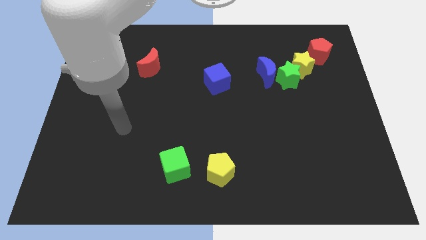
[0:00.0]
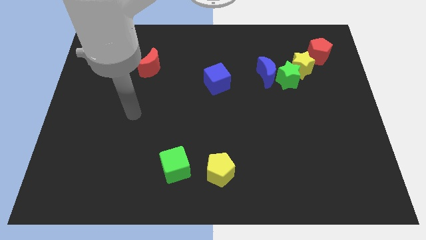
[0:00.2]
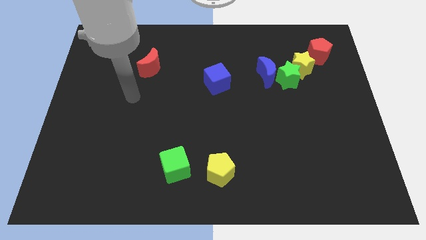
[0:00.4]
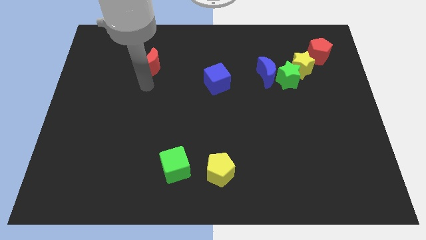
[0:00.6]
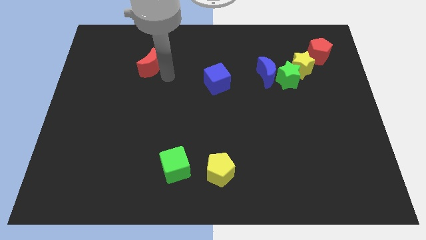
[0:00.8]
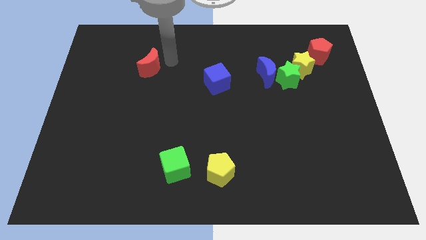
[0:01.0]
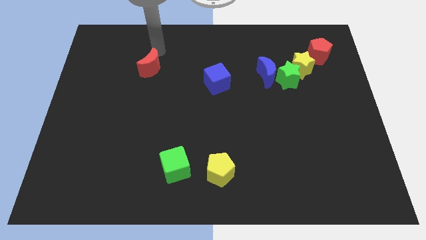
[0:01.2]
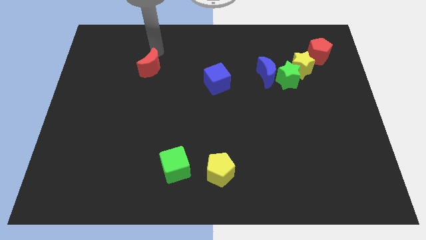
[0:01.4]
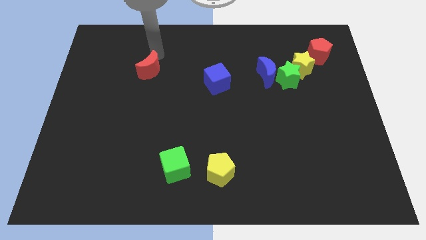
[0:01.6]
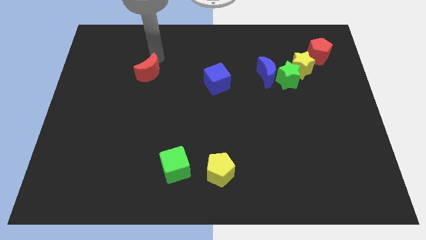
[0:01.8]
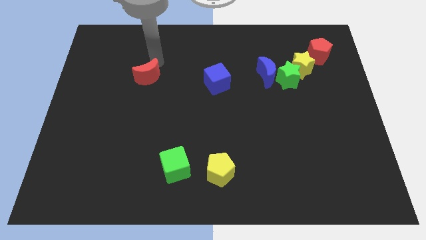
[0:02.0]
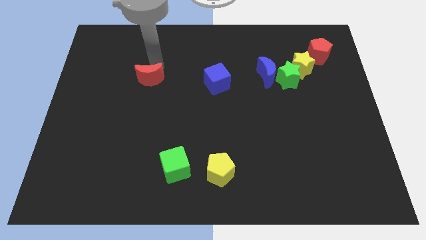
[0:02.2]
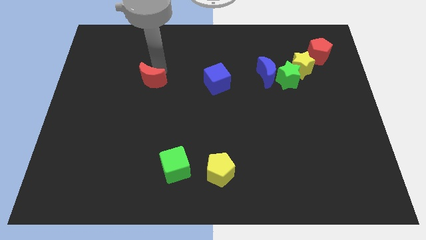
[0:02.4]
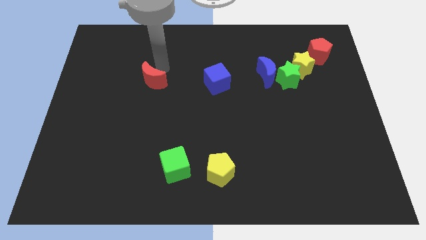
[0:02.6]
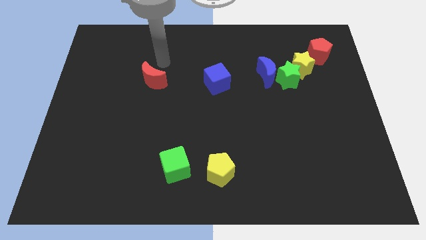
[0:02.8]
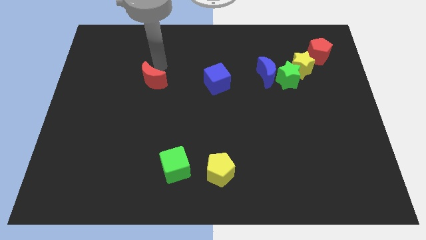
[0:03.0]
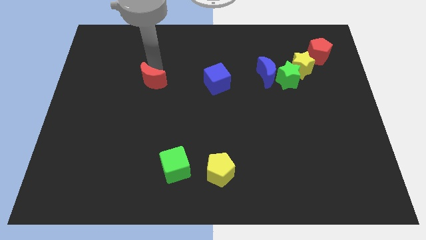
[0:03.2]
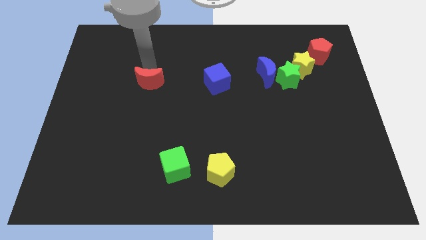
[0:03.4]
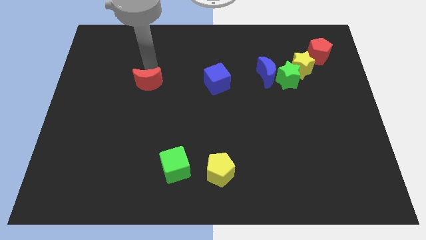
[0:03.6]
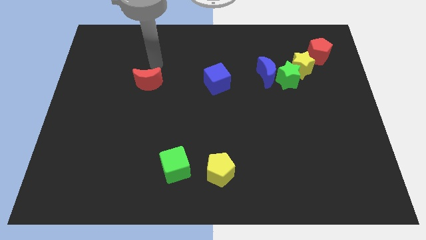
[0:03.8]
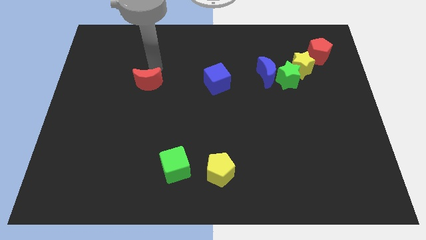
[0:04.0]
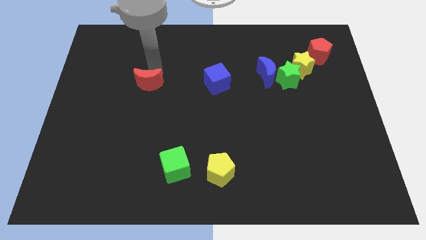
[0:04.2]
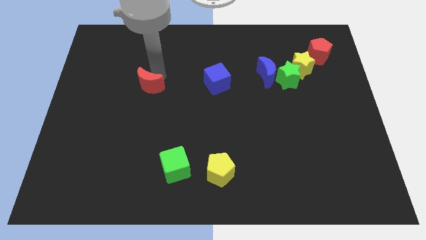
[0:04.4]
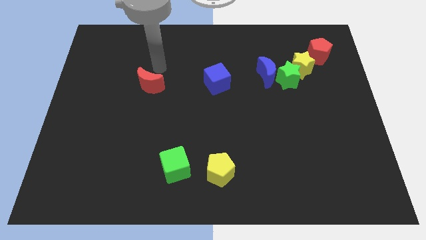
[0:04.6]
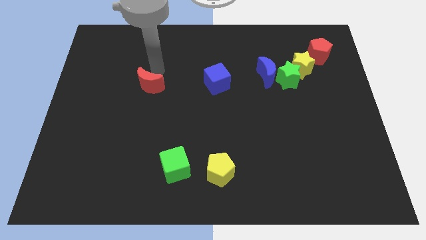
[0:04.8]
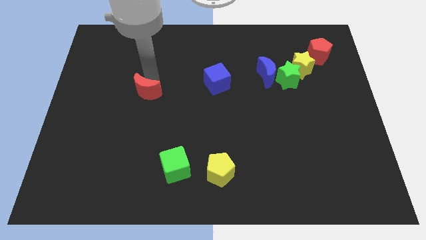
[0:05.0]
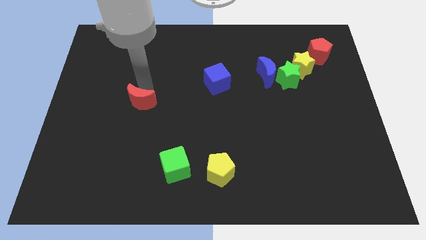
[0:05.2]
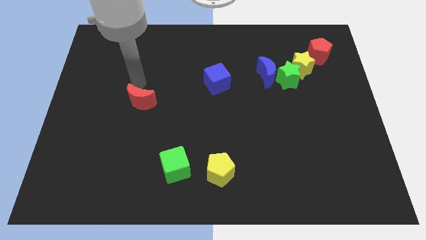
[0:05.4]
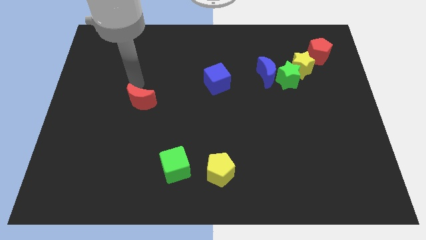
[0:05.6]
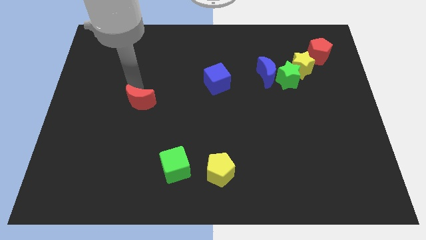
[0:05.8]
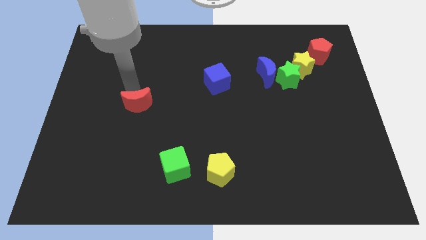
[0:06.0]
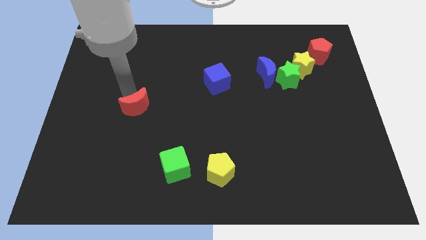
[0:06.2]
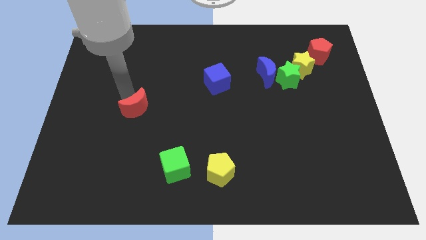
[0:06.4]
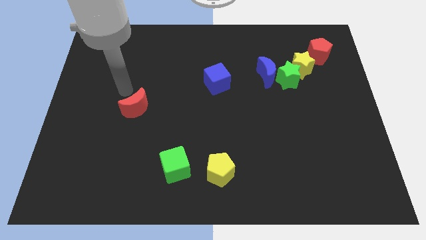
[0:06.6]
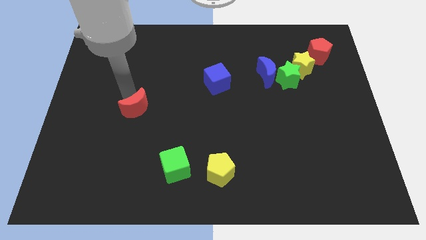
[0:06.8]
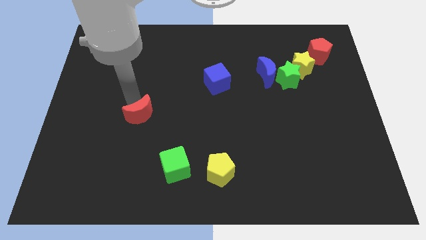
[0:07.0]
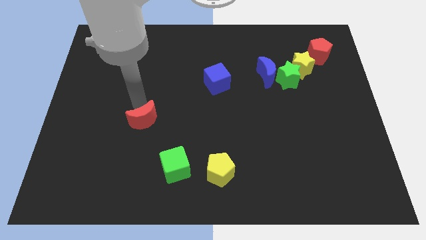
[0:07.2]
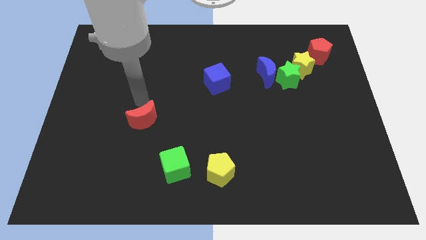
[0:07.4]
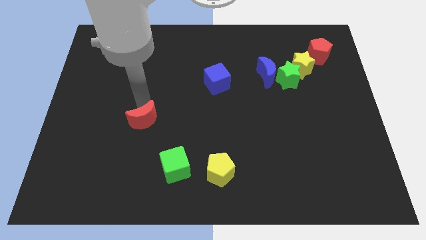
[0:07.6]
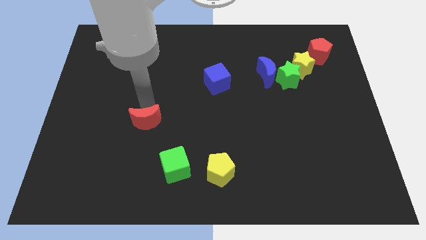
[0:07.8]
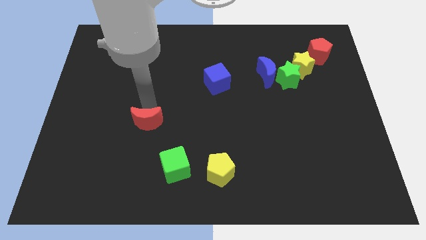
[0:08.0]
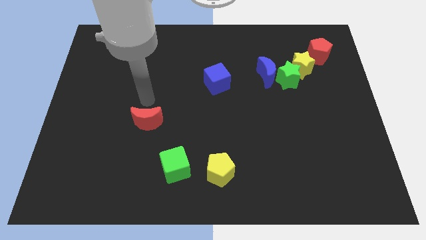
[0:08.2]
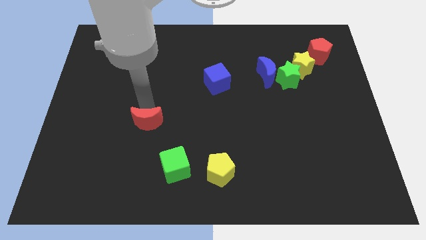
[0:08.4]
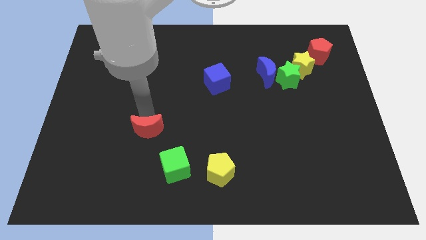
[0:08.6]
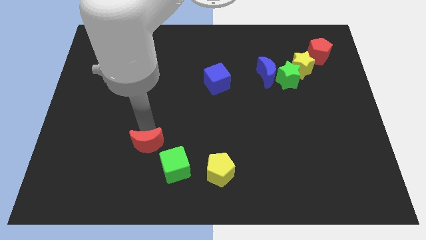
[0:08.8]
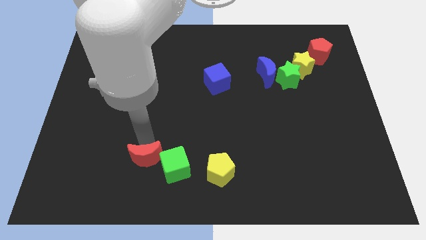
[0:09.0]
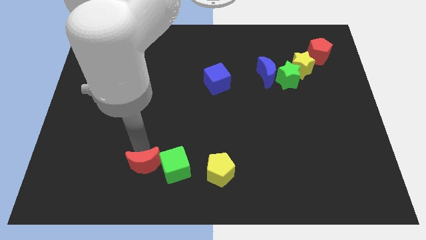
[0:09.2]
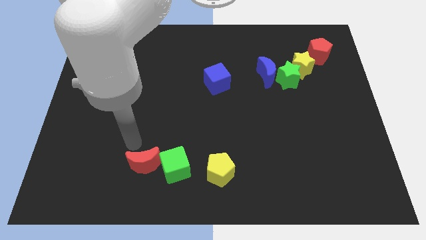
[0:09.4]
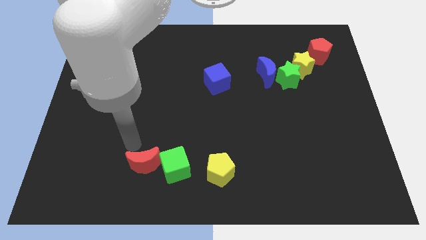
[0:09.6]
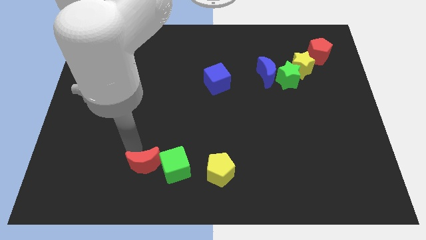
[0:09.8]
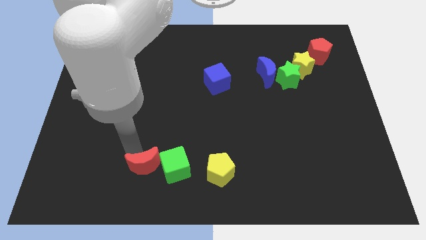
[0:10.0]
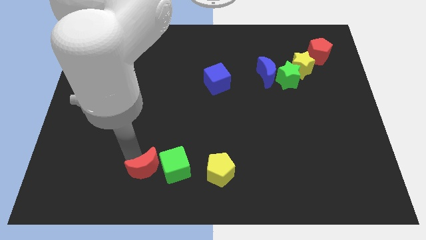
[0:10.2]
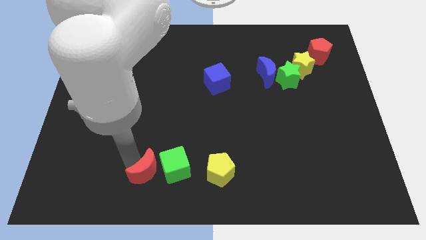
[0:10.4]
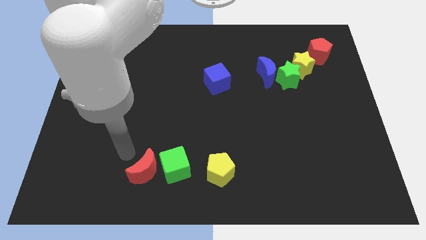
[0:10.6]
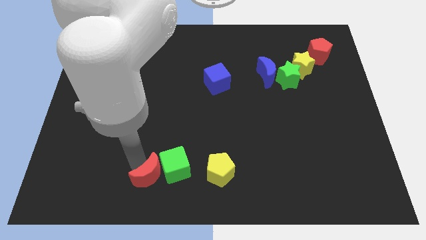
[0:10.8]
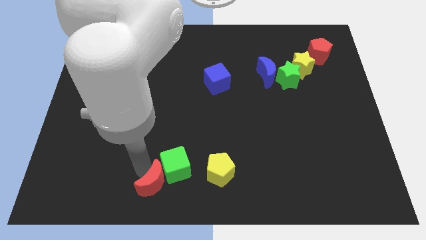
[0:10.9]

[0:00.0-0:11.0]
put the red moon to the bottom

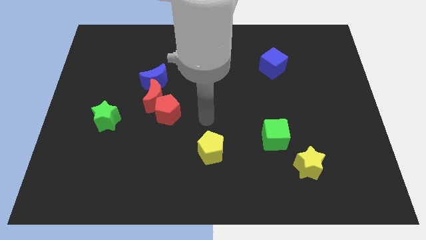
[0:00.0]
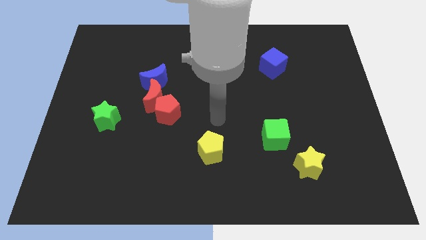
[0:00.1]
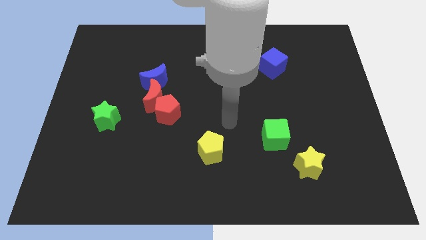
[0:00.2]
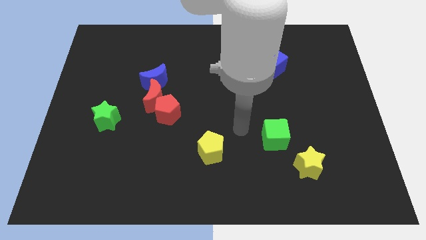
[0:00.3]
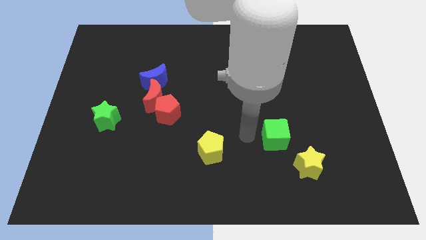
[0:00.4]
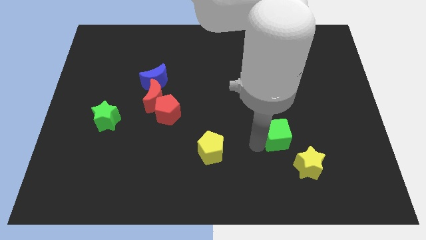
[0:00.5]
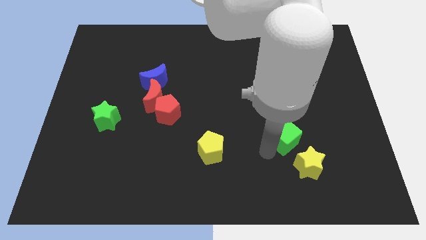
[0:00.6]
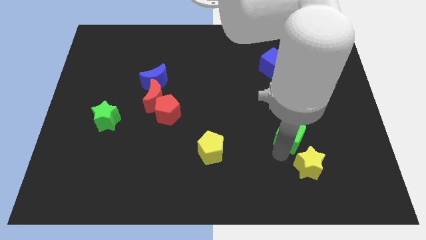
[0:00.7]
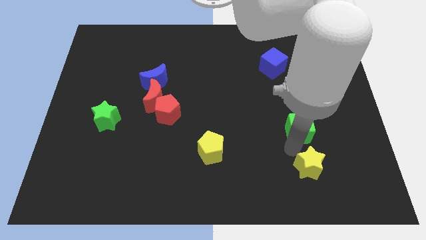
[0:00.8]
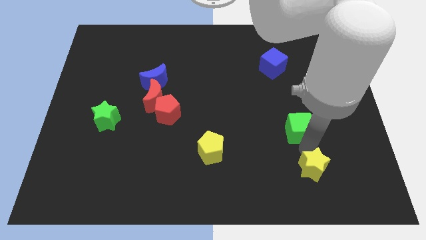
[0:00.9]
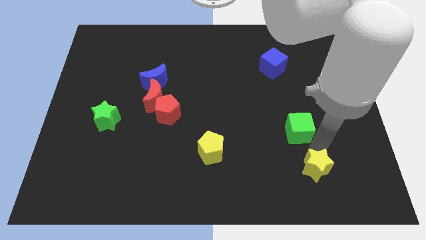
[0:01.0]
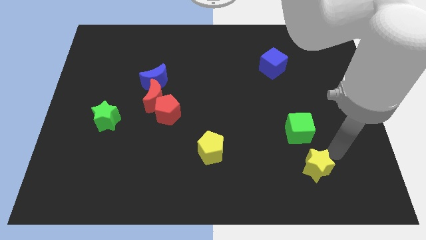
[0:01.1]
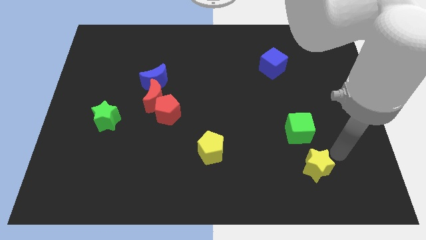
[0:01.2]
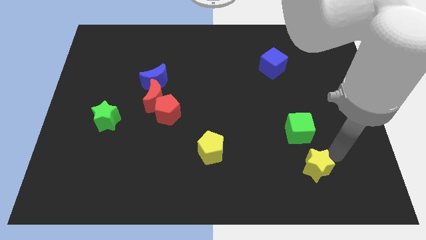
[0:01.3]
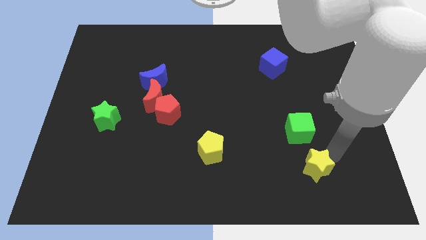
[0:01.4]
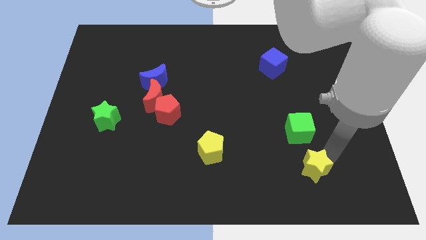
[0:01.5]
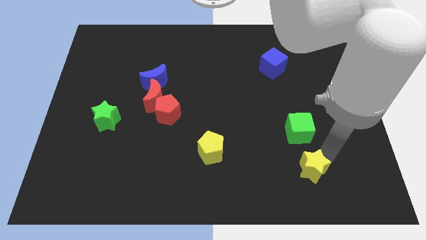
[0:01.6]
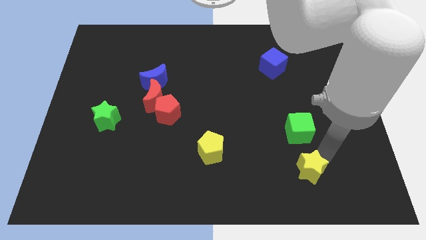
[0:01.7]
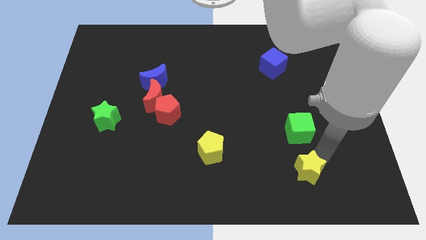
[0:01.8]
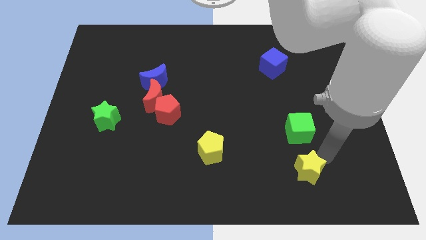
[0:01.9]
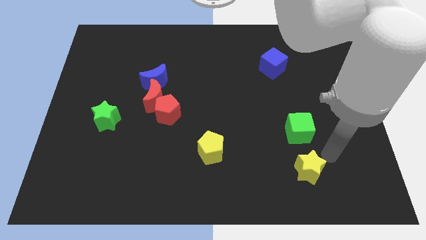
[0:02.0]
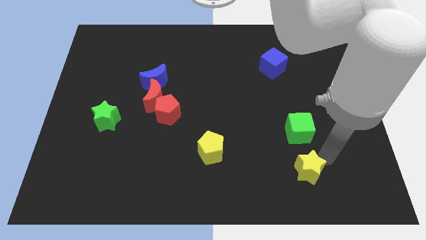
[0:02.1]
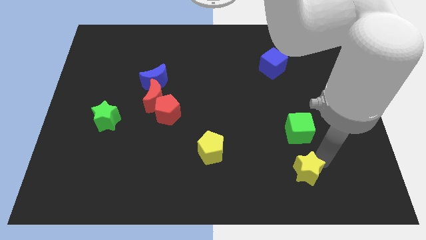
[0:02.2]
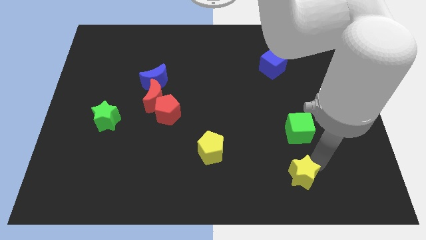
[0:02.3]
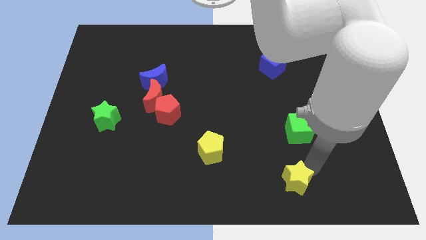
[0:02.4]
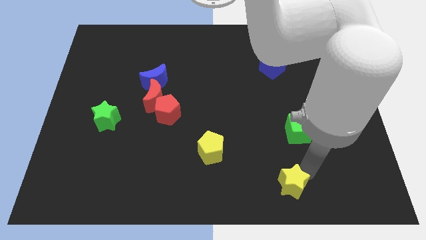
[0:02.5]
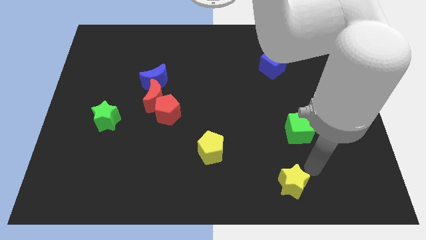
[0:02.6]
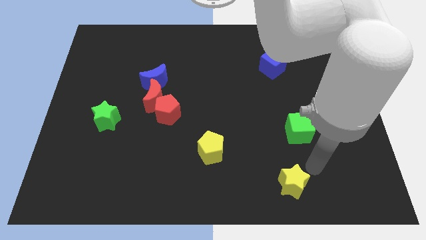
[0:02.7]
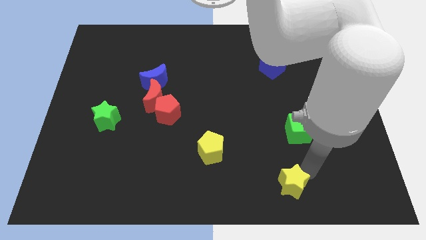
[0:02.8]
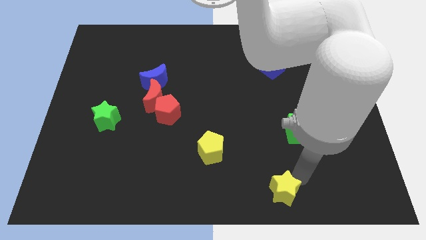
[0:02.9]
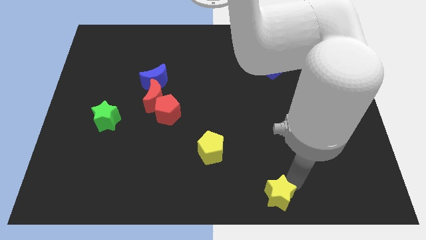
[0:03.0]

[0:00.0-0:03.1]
push the yellow star to the bottom side
